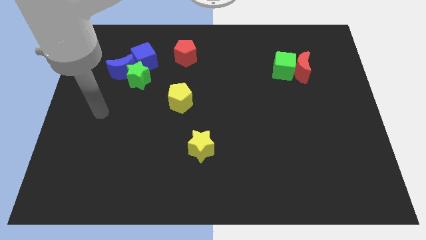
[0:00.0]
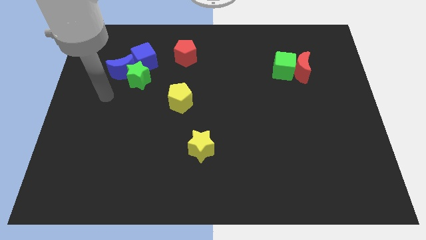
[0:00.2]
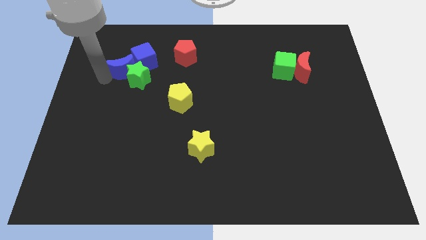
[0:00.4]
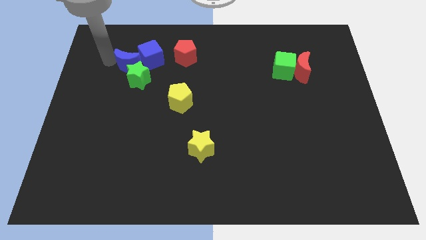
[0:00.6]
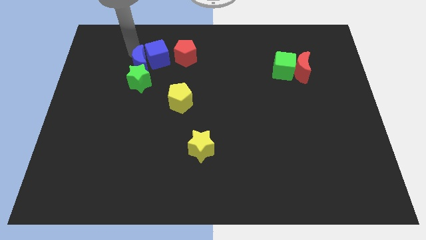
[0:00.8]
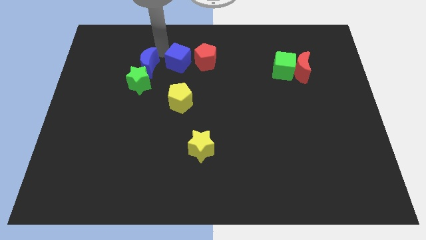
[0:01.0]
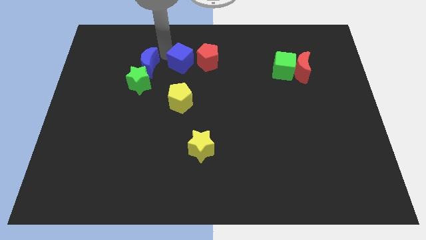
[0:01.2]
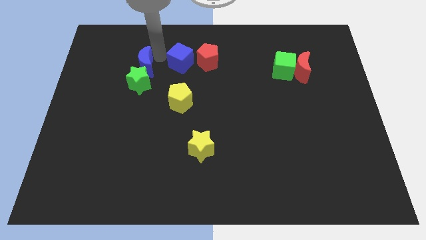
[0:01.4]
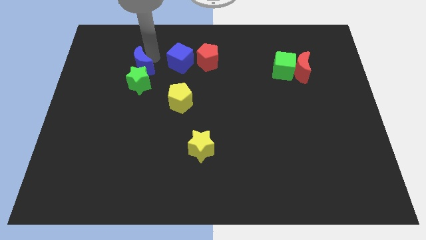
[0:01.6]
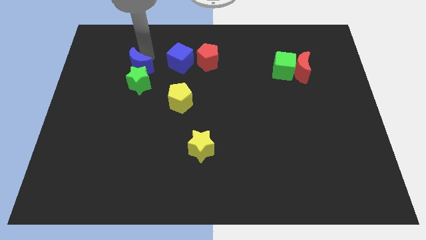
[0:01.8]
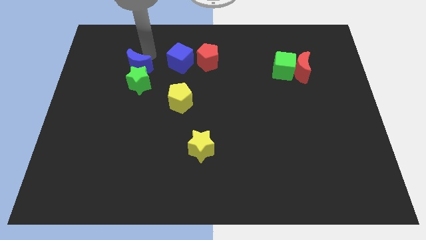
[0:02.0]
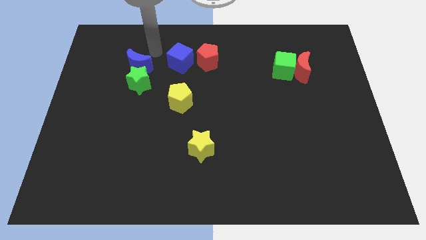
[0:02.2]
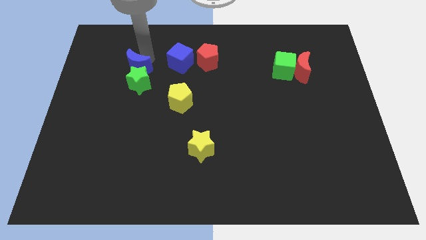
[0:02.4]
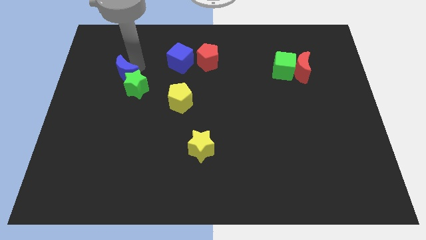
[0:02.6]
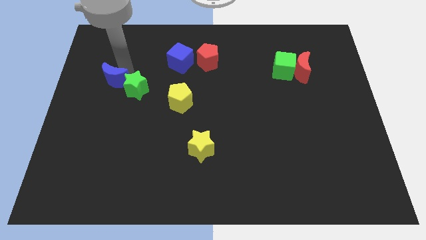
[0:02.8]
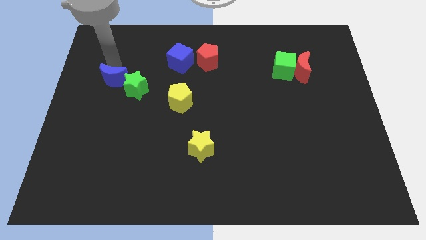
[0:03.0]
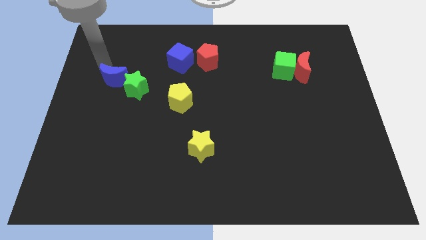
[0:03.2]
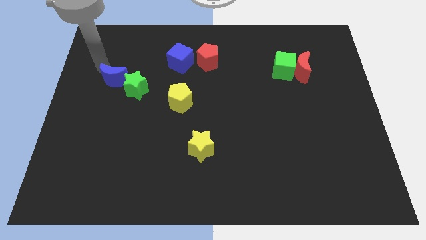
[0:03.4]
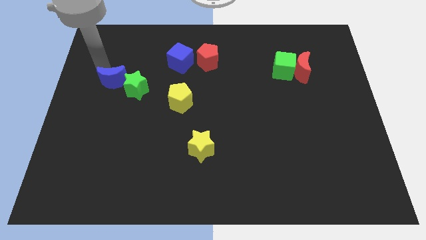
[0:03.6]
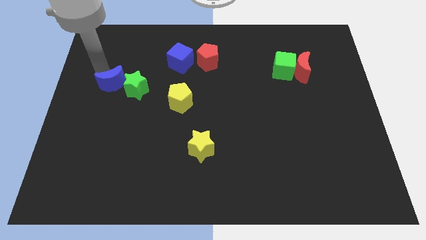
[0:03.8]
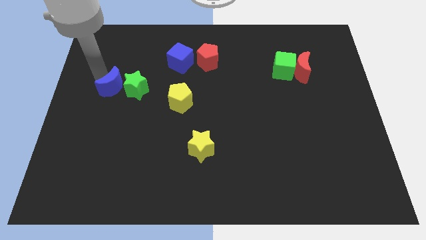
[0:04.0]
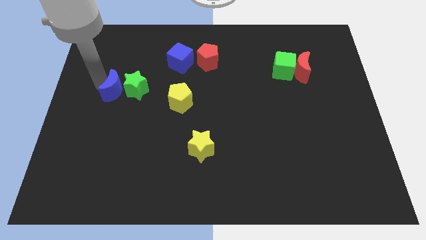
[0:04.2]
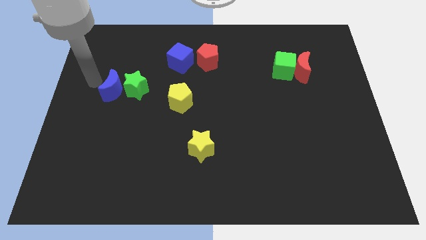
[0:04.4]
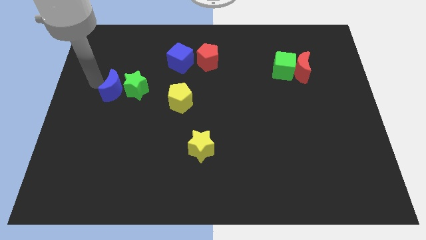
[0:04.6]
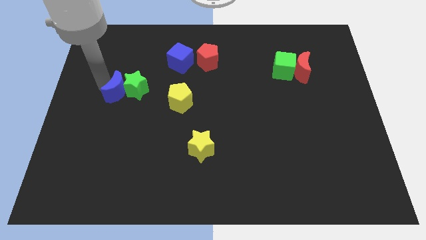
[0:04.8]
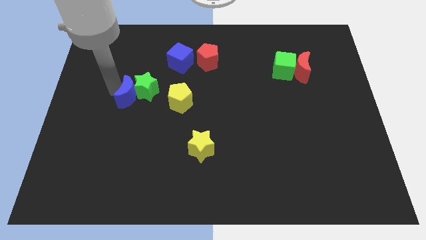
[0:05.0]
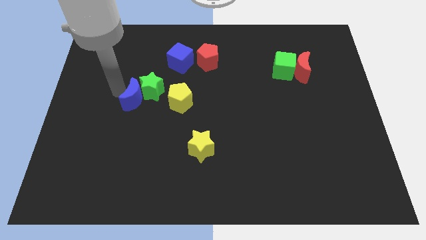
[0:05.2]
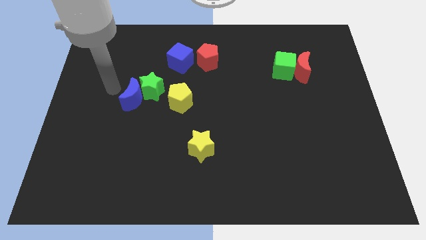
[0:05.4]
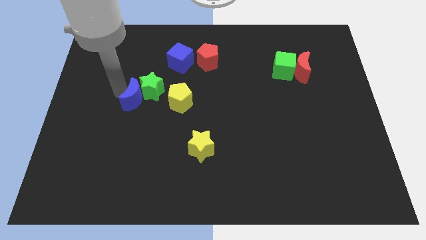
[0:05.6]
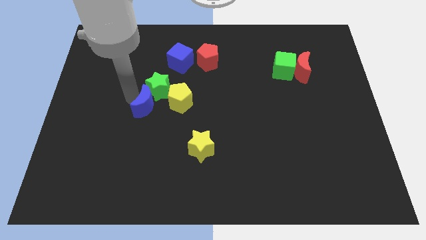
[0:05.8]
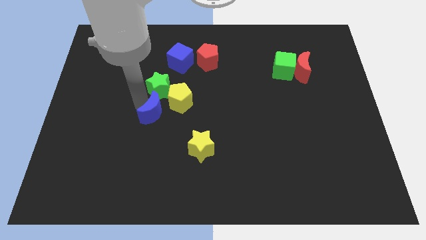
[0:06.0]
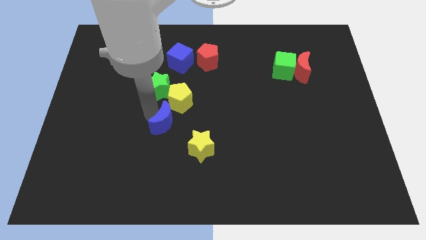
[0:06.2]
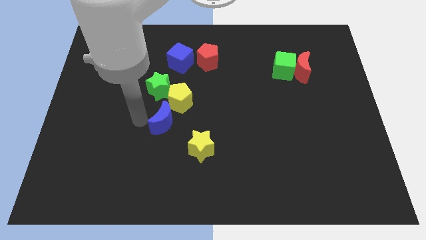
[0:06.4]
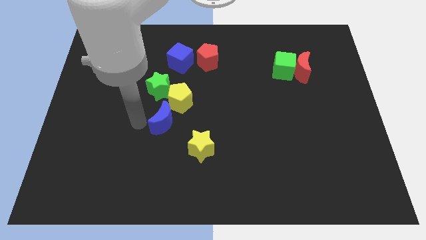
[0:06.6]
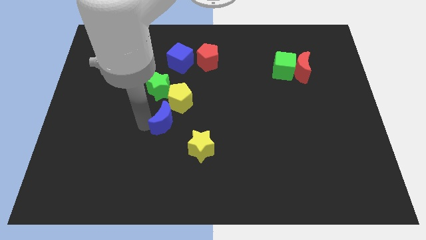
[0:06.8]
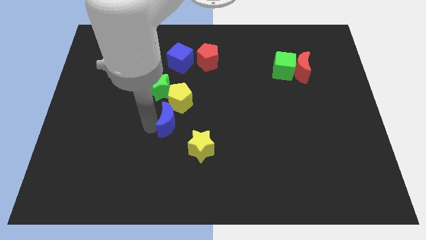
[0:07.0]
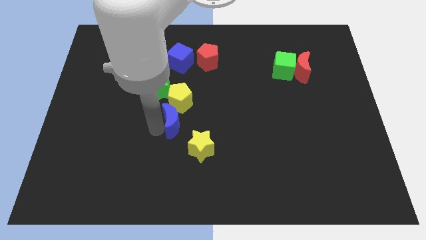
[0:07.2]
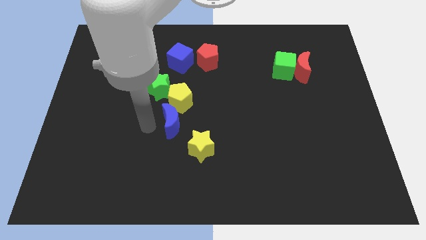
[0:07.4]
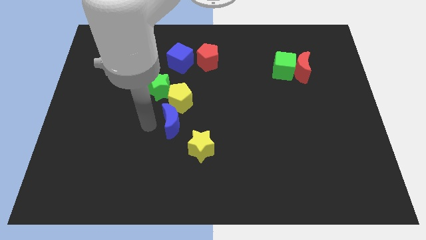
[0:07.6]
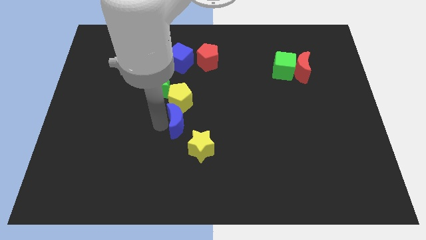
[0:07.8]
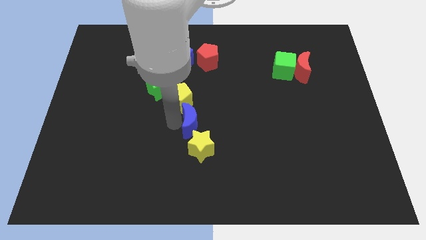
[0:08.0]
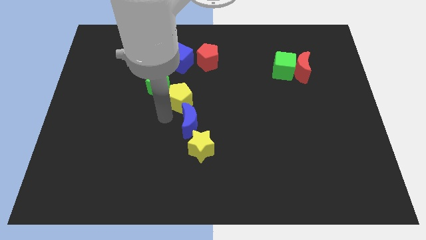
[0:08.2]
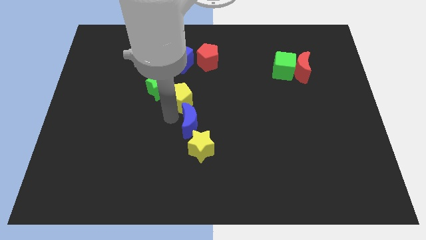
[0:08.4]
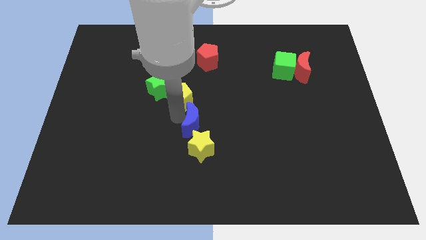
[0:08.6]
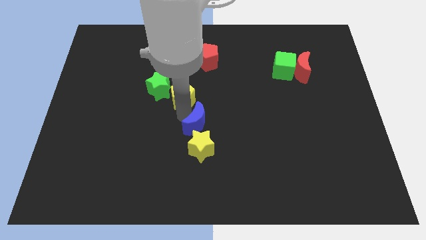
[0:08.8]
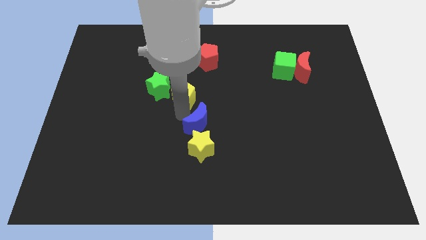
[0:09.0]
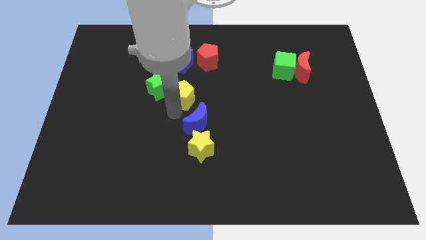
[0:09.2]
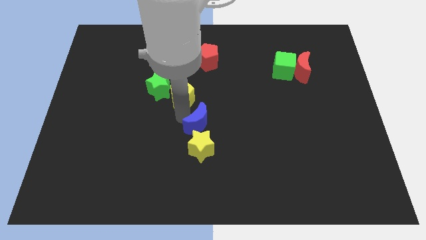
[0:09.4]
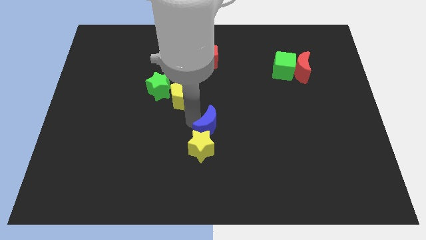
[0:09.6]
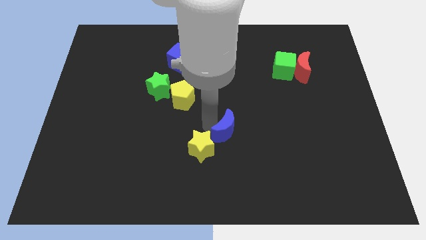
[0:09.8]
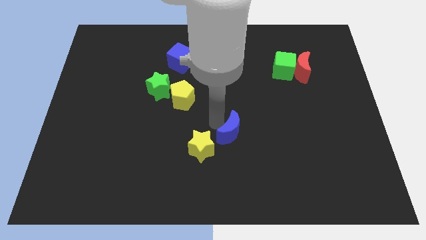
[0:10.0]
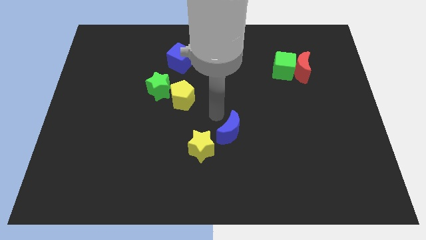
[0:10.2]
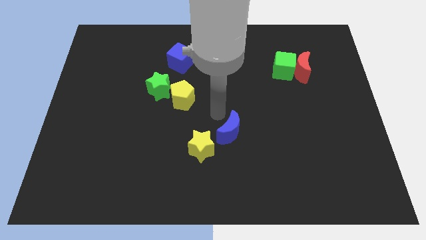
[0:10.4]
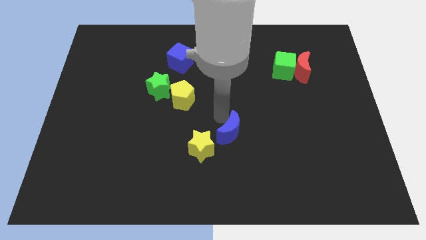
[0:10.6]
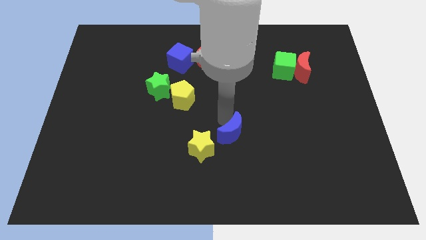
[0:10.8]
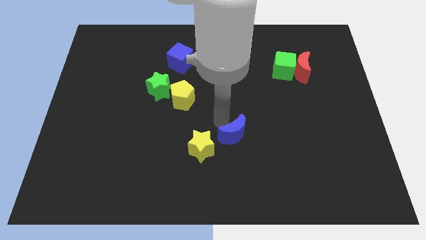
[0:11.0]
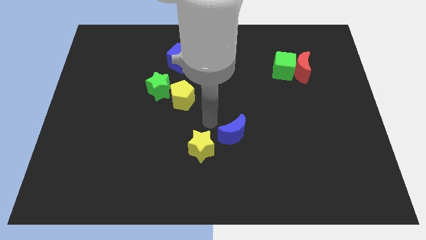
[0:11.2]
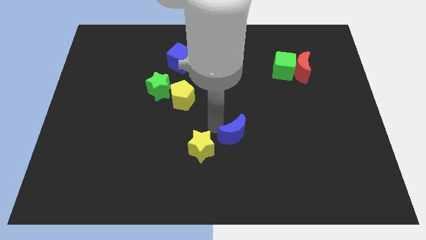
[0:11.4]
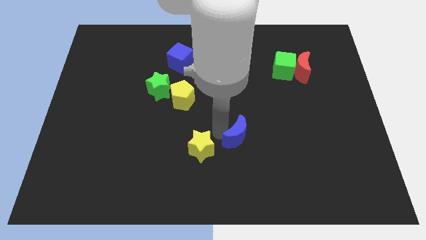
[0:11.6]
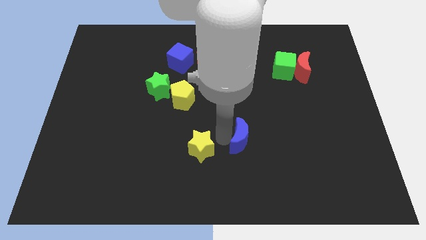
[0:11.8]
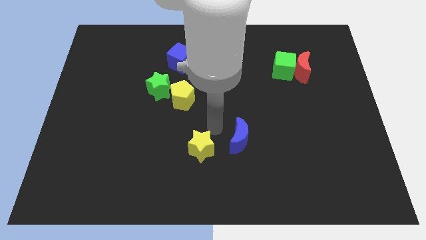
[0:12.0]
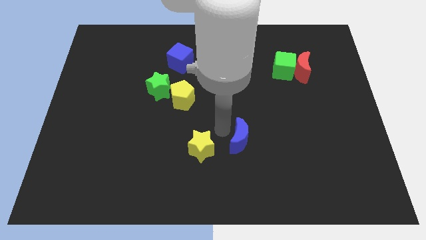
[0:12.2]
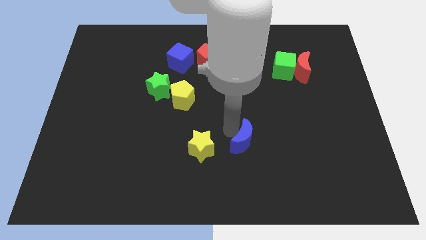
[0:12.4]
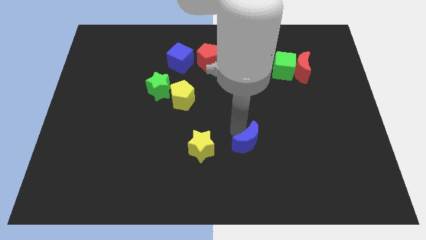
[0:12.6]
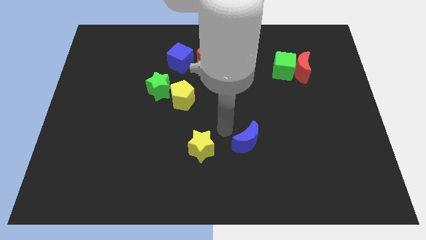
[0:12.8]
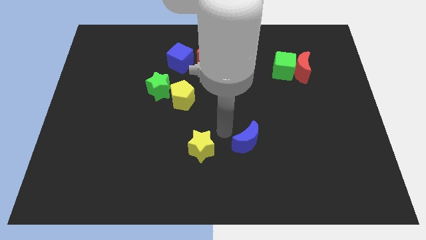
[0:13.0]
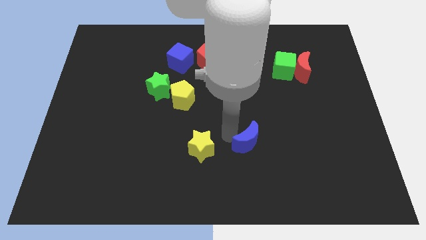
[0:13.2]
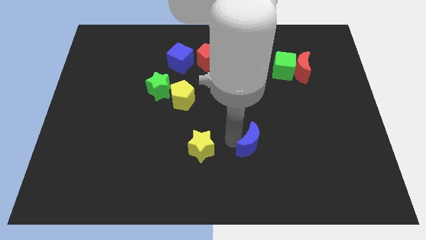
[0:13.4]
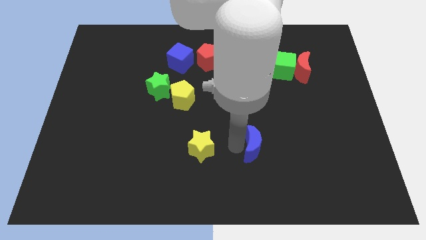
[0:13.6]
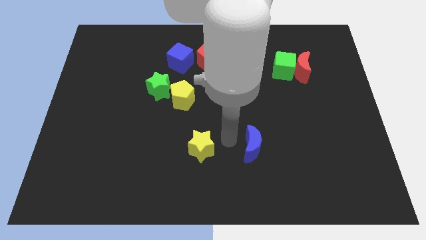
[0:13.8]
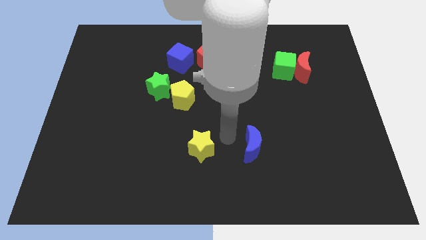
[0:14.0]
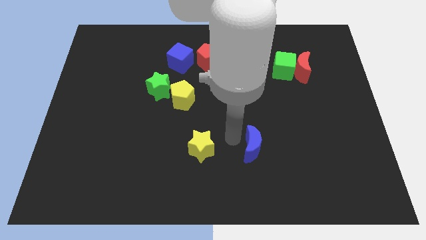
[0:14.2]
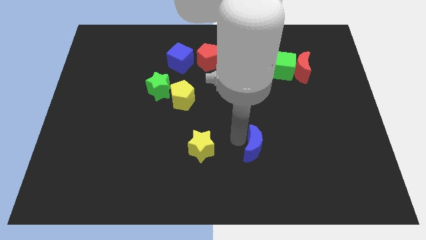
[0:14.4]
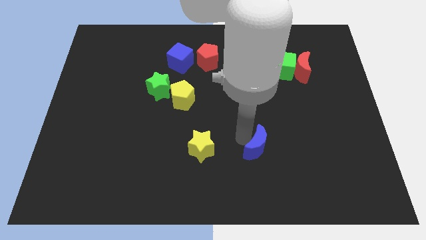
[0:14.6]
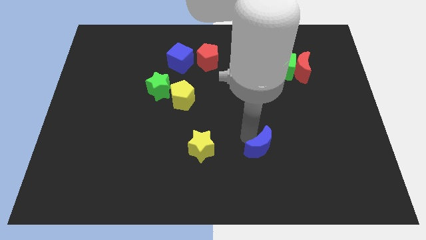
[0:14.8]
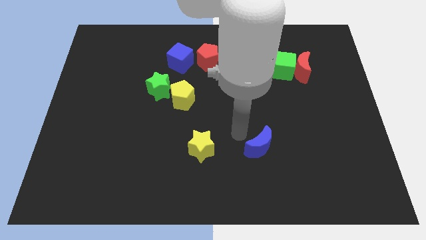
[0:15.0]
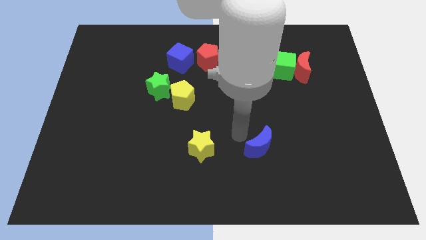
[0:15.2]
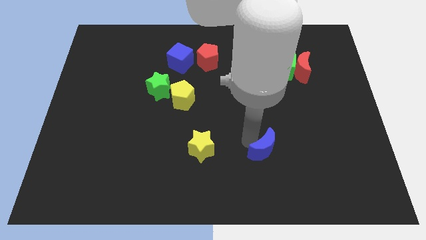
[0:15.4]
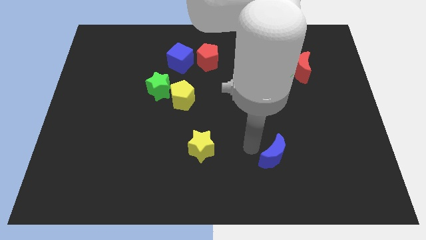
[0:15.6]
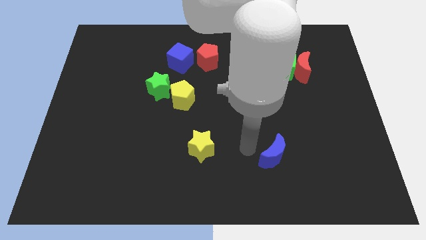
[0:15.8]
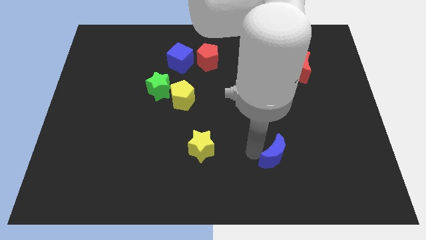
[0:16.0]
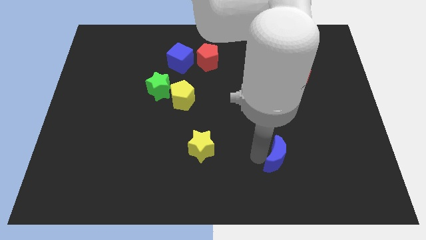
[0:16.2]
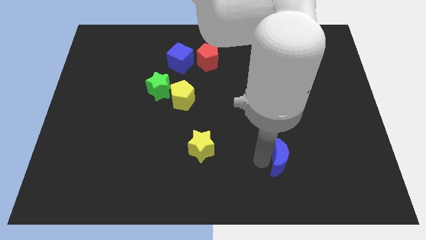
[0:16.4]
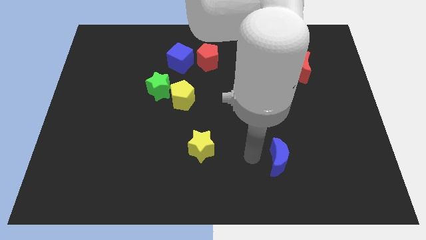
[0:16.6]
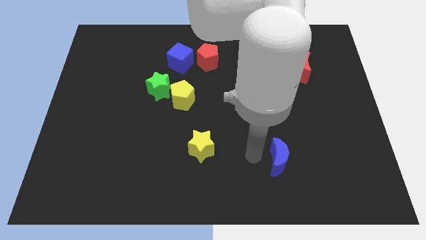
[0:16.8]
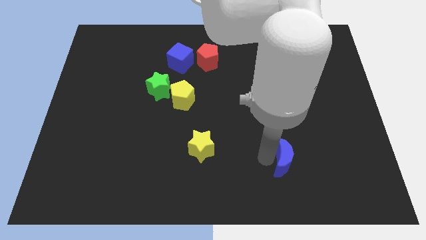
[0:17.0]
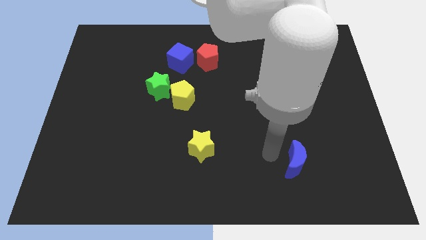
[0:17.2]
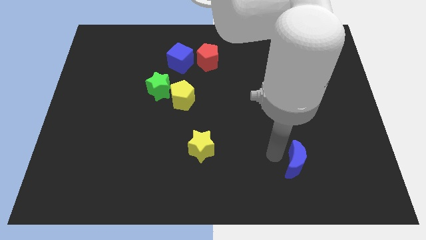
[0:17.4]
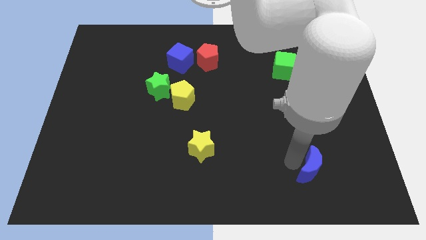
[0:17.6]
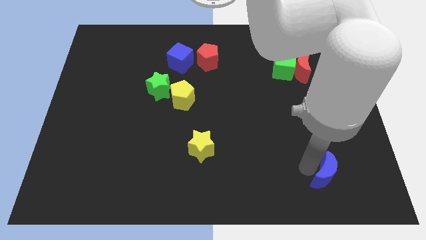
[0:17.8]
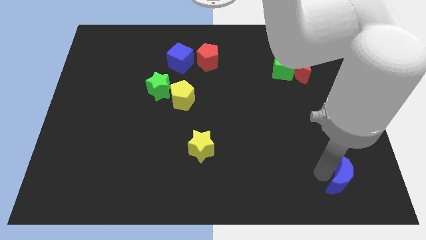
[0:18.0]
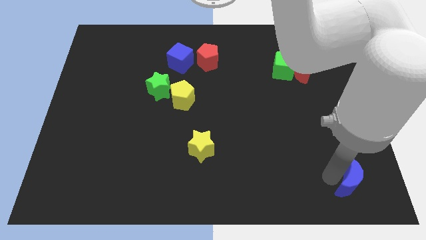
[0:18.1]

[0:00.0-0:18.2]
move the blue moon to the bottom right
